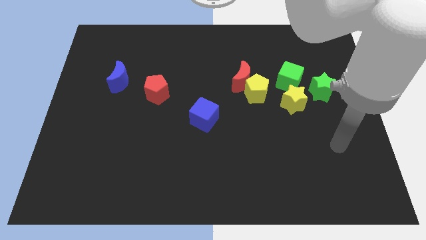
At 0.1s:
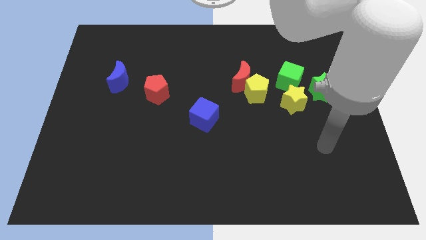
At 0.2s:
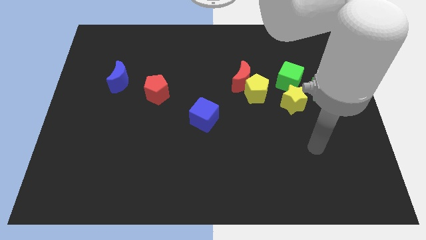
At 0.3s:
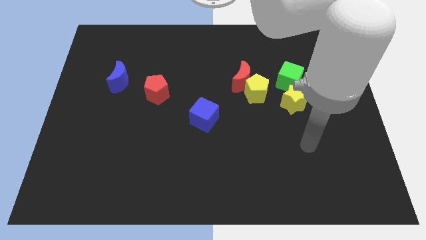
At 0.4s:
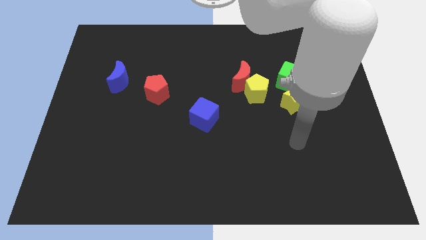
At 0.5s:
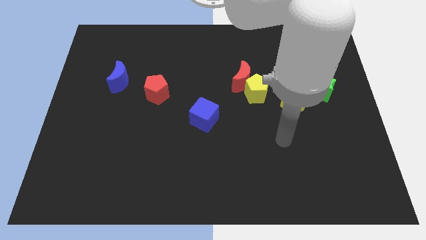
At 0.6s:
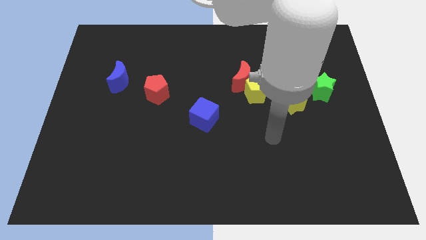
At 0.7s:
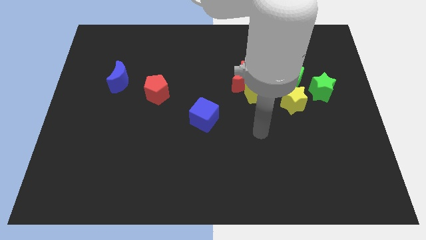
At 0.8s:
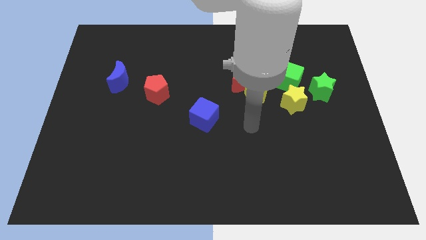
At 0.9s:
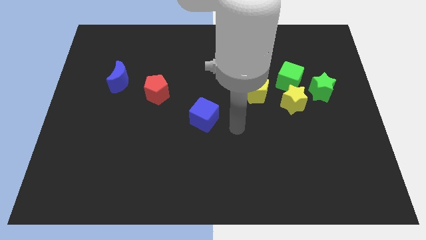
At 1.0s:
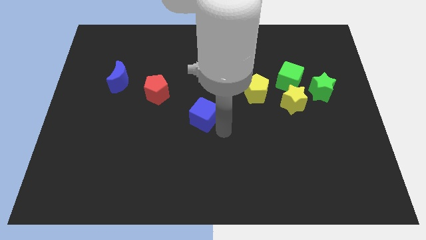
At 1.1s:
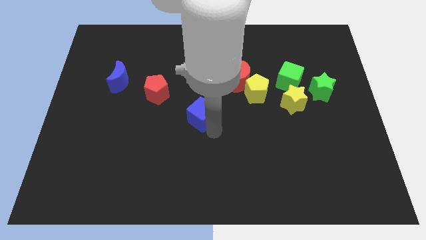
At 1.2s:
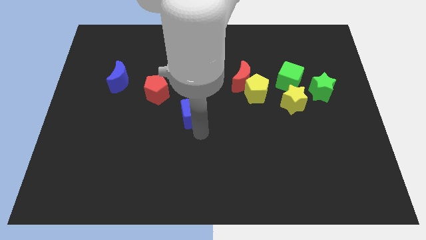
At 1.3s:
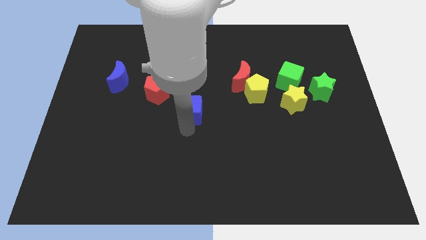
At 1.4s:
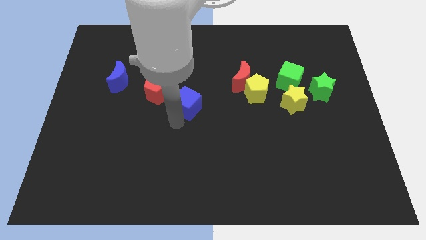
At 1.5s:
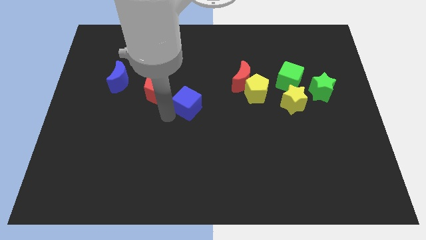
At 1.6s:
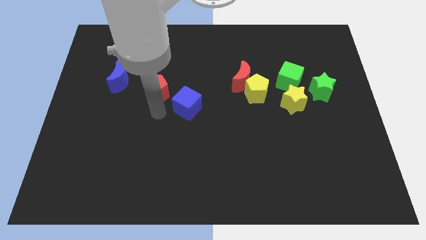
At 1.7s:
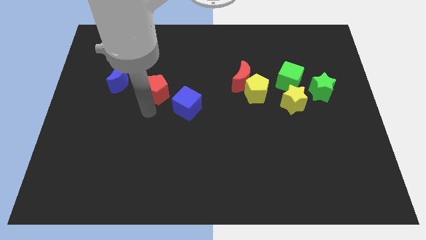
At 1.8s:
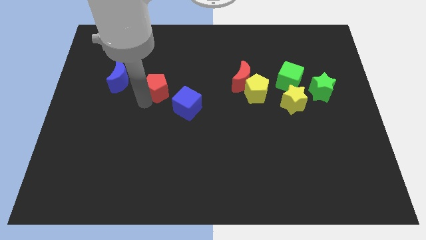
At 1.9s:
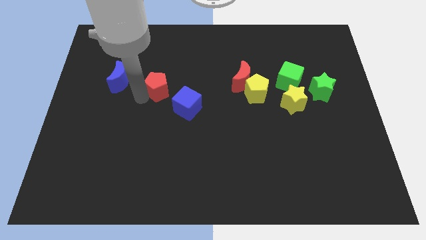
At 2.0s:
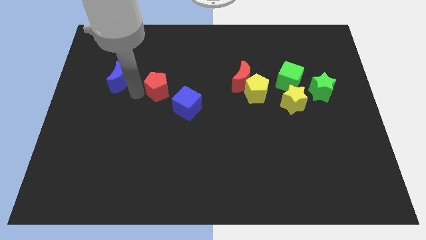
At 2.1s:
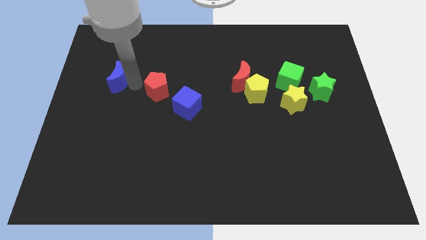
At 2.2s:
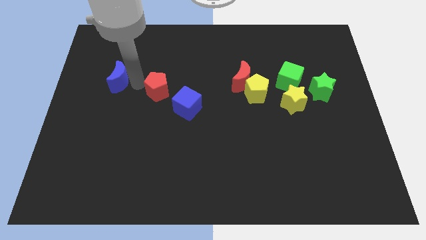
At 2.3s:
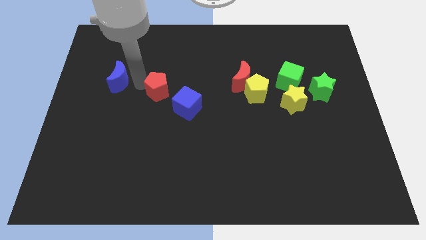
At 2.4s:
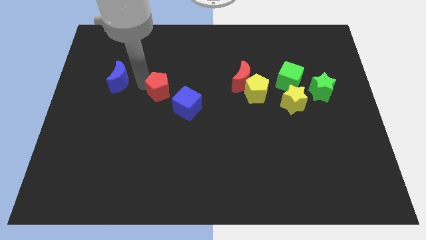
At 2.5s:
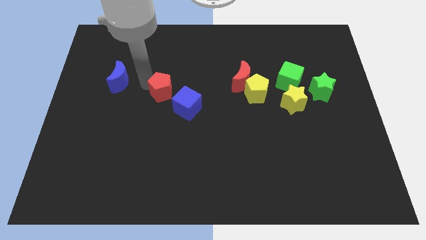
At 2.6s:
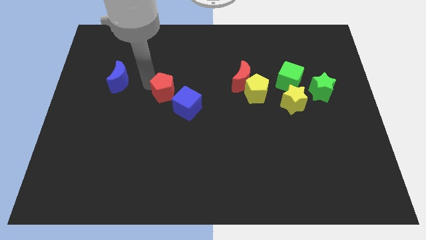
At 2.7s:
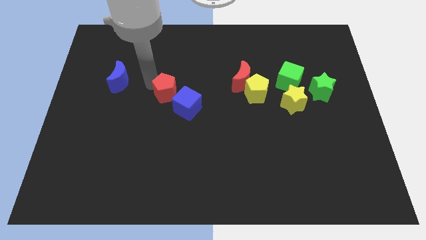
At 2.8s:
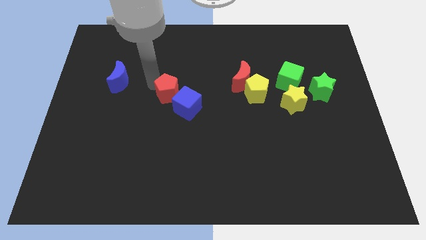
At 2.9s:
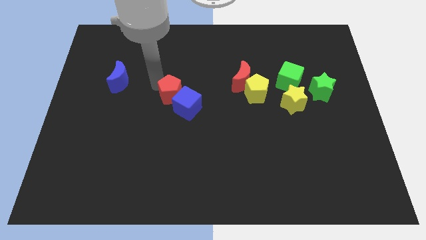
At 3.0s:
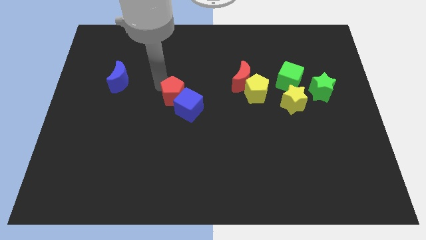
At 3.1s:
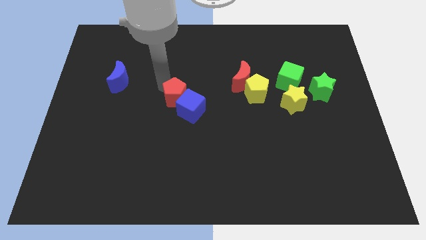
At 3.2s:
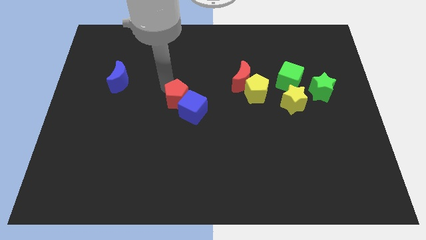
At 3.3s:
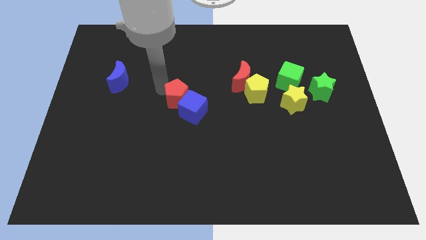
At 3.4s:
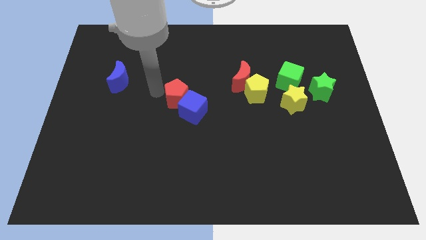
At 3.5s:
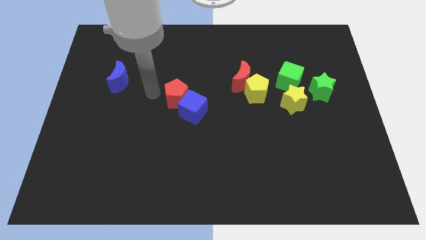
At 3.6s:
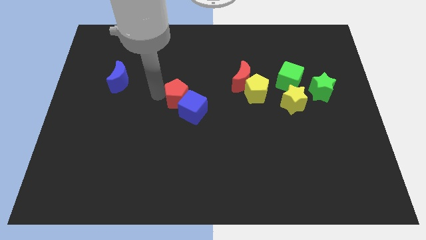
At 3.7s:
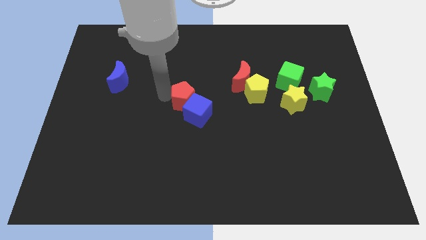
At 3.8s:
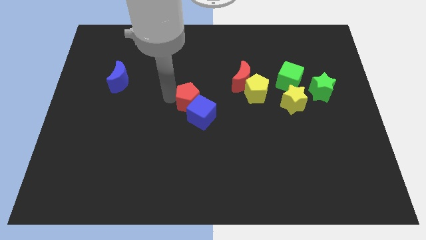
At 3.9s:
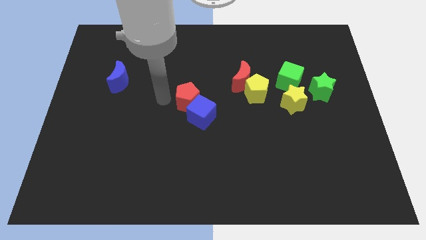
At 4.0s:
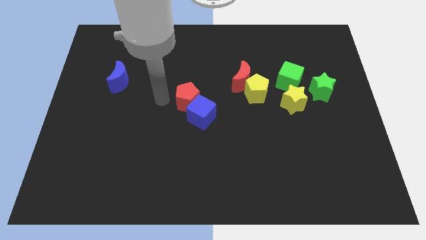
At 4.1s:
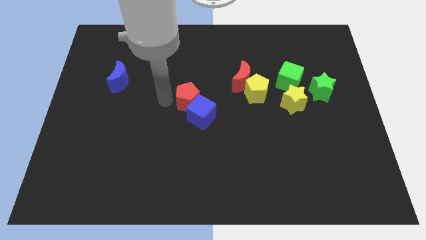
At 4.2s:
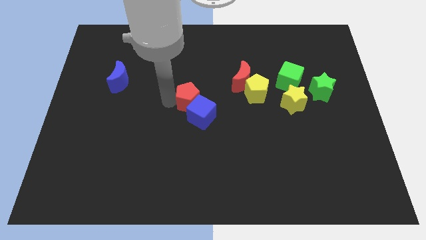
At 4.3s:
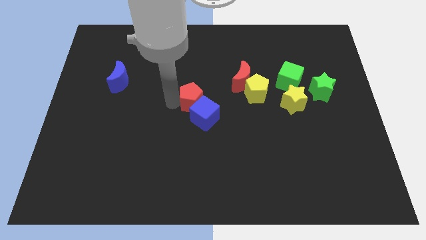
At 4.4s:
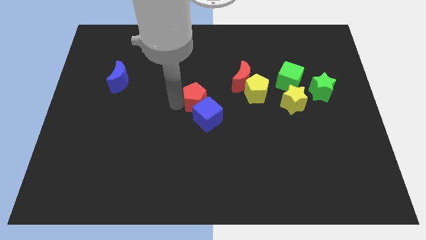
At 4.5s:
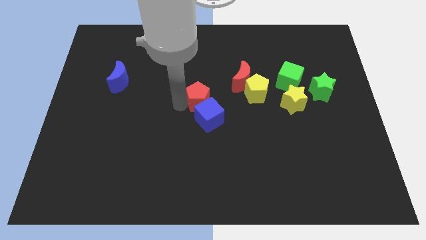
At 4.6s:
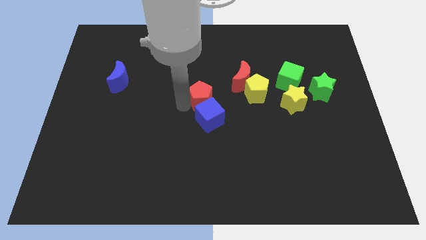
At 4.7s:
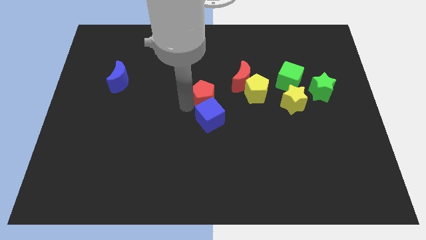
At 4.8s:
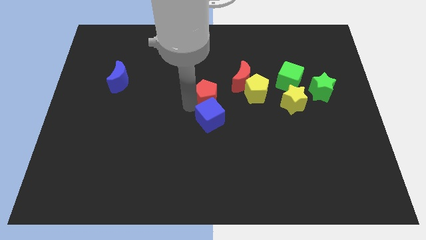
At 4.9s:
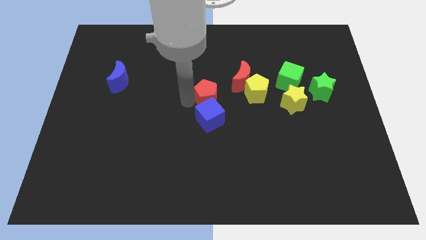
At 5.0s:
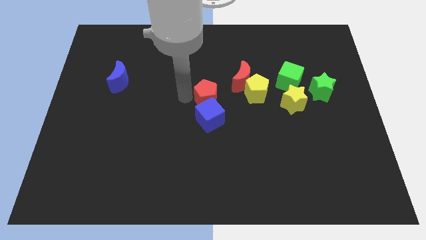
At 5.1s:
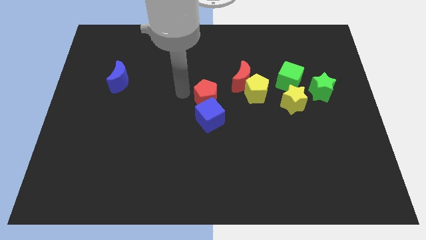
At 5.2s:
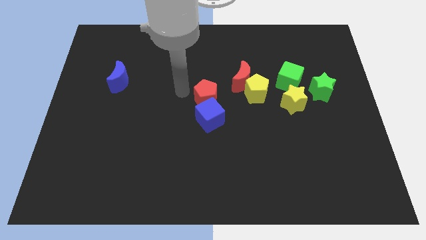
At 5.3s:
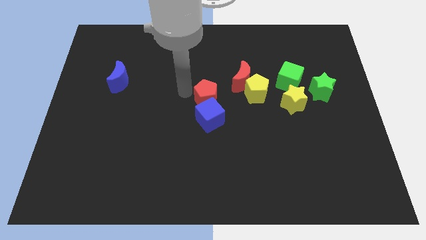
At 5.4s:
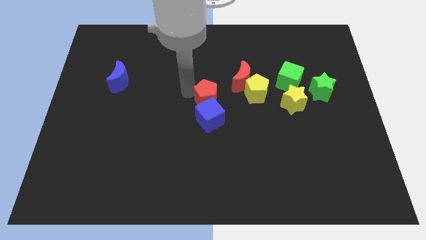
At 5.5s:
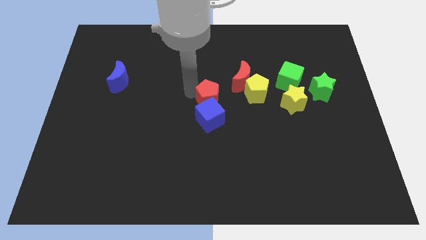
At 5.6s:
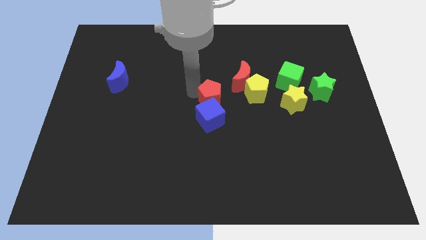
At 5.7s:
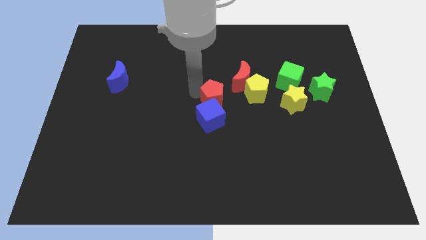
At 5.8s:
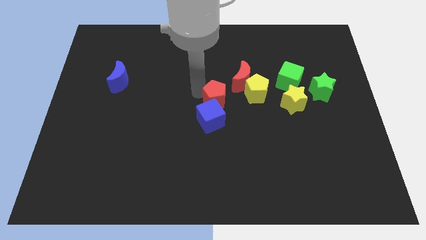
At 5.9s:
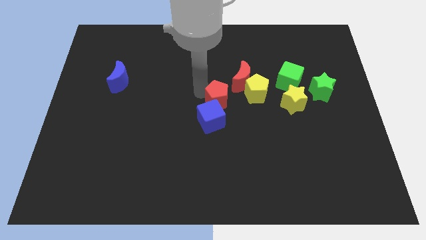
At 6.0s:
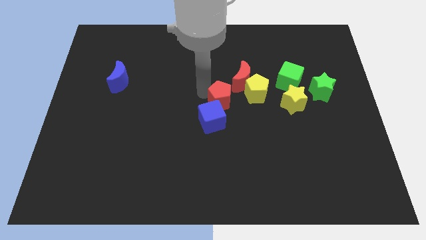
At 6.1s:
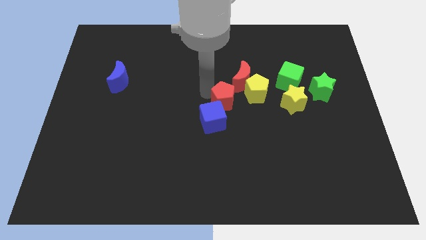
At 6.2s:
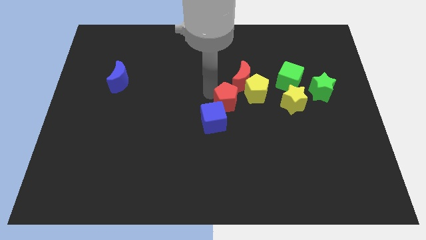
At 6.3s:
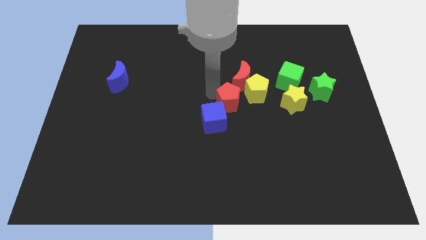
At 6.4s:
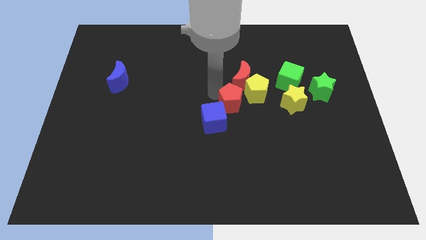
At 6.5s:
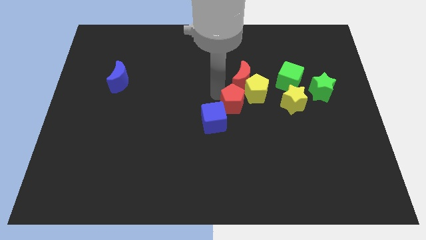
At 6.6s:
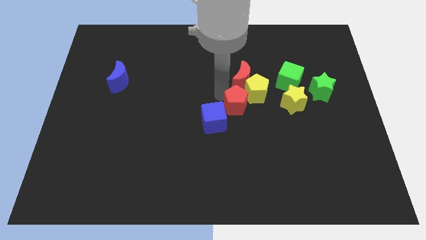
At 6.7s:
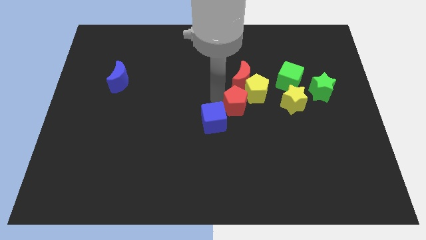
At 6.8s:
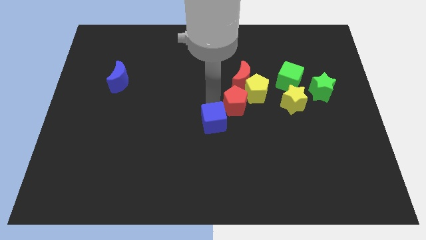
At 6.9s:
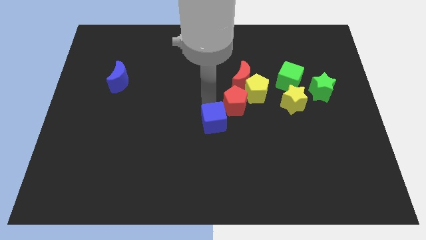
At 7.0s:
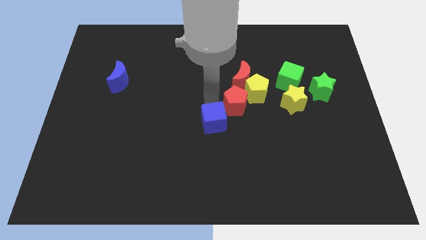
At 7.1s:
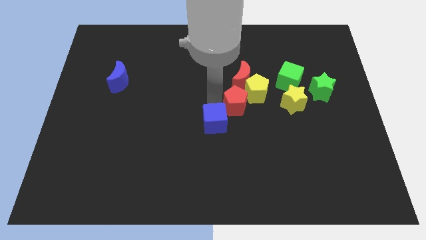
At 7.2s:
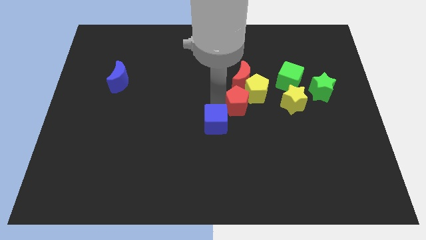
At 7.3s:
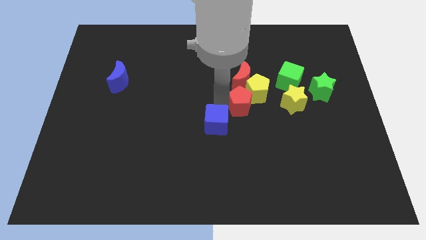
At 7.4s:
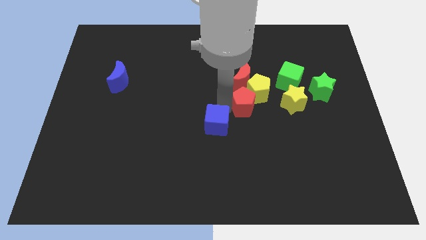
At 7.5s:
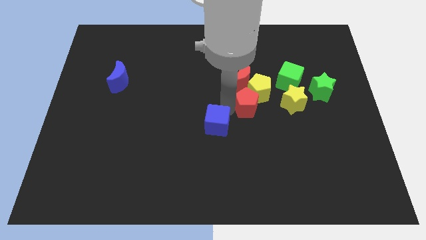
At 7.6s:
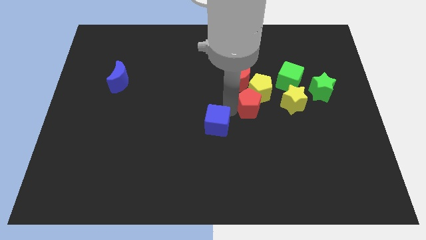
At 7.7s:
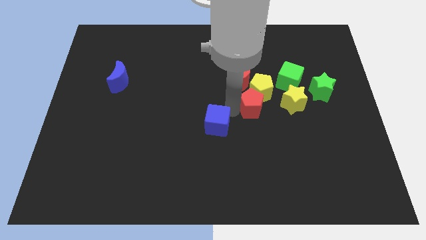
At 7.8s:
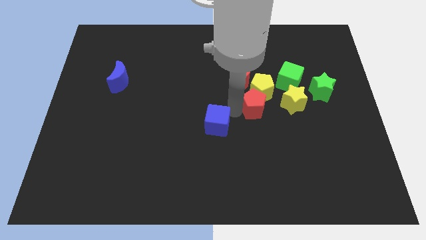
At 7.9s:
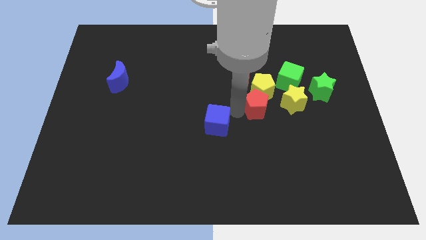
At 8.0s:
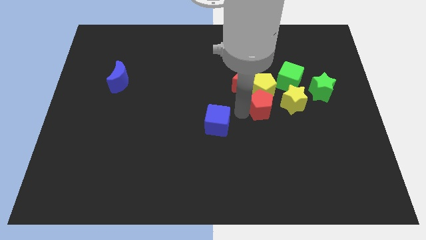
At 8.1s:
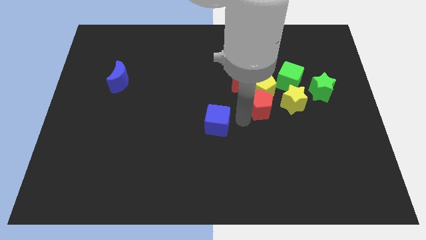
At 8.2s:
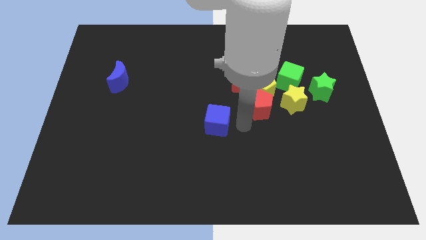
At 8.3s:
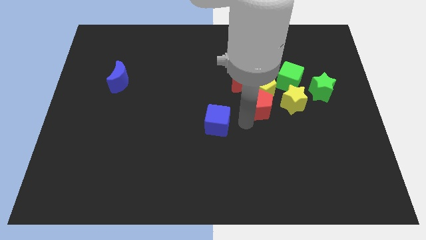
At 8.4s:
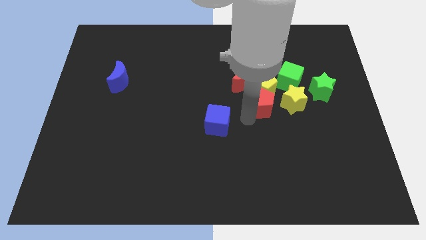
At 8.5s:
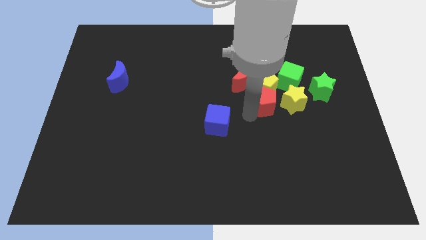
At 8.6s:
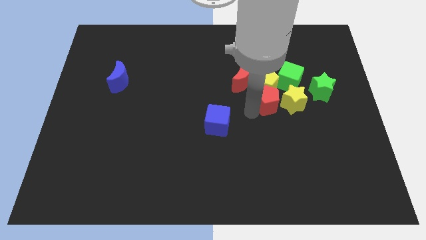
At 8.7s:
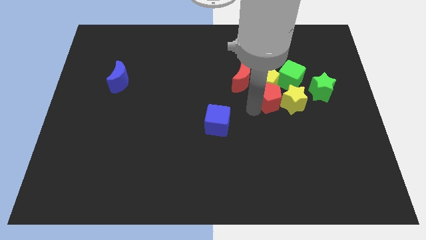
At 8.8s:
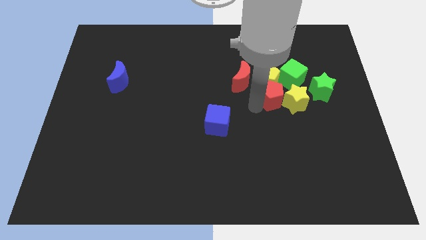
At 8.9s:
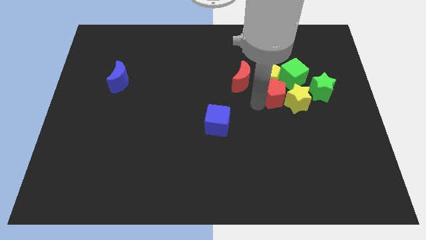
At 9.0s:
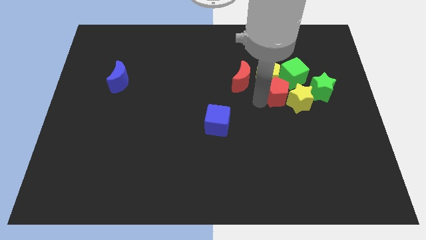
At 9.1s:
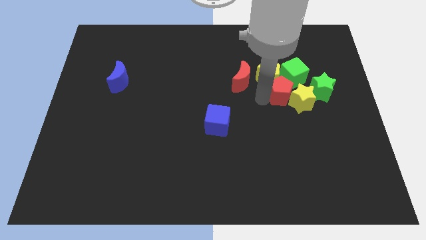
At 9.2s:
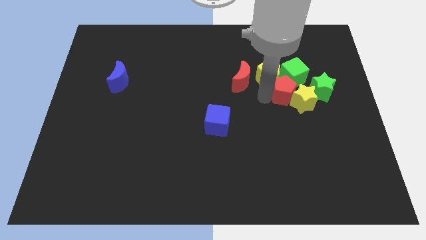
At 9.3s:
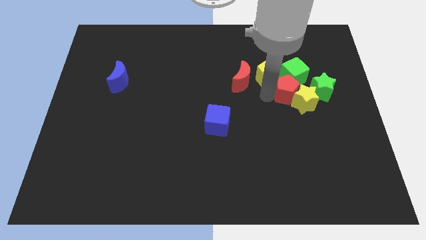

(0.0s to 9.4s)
slide the red pentagon to the green cube
